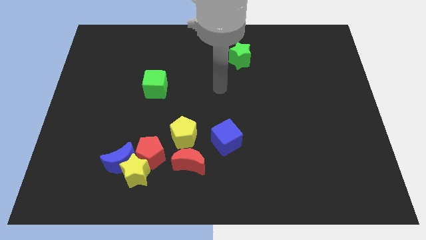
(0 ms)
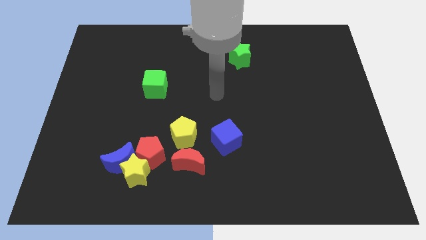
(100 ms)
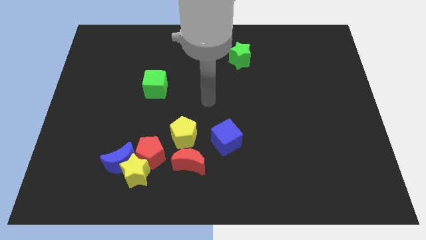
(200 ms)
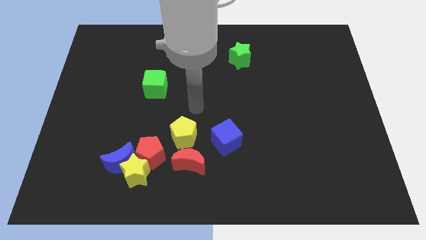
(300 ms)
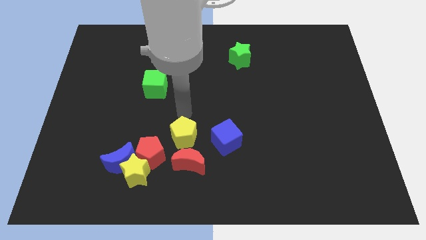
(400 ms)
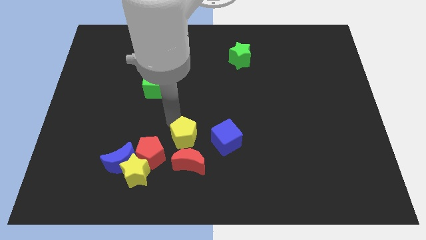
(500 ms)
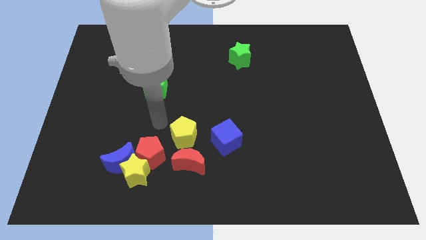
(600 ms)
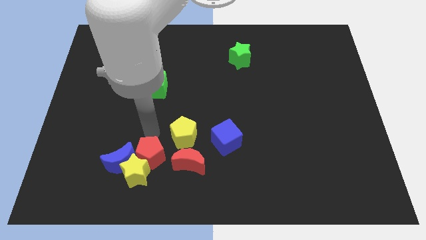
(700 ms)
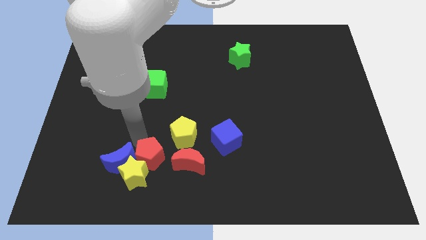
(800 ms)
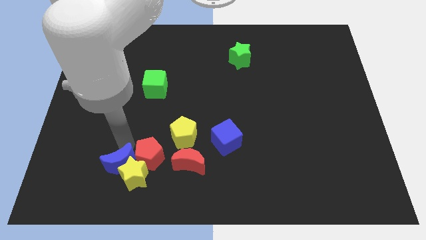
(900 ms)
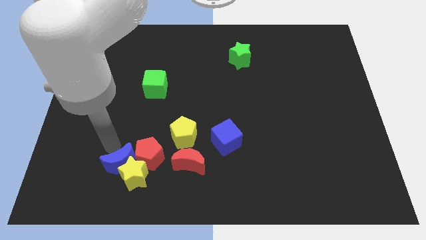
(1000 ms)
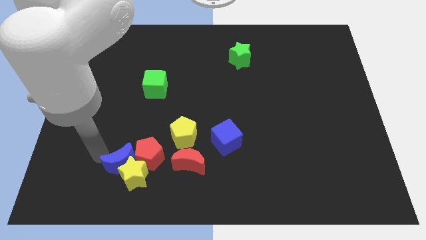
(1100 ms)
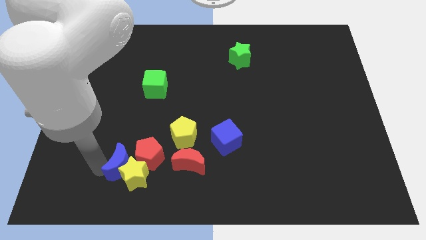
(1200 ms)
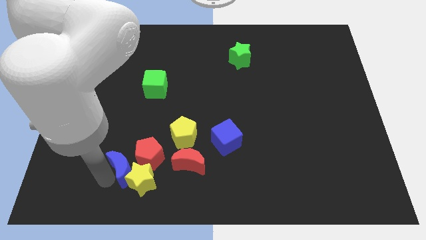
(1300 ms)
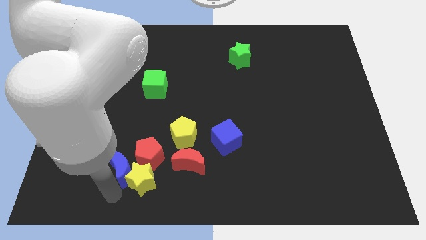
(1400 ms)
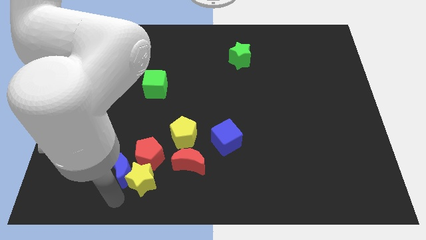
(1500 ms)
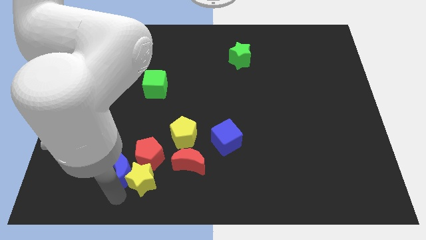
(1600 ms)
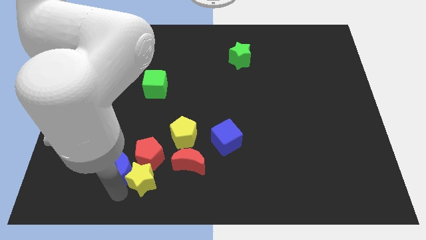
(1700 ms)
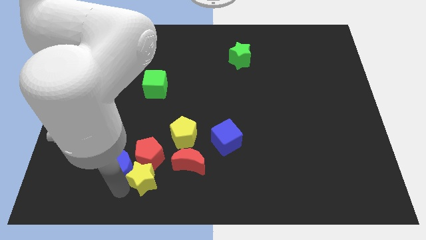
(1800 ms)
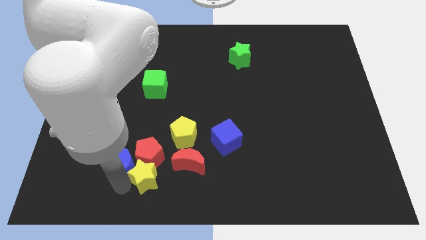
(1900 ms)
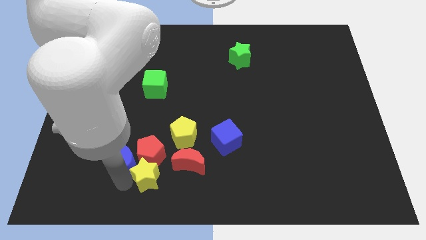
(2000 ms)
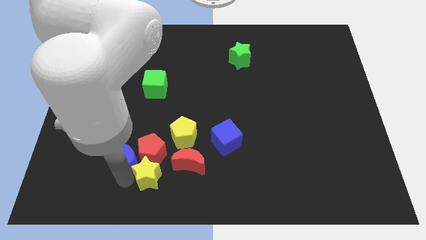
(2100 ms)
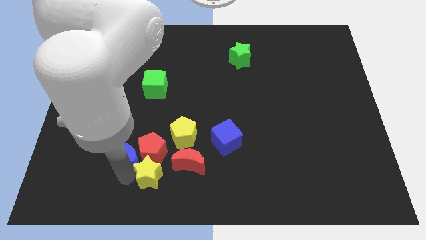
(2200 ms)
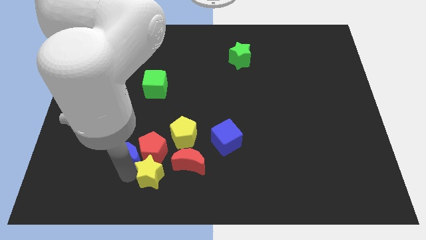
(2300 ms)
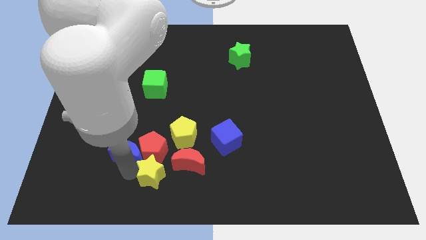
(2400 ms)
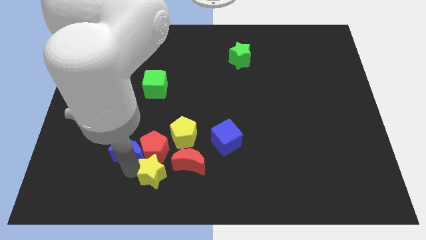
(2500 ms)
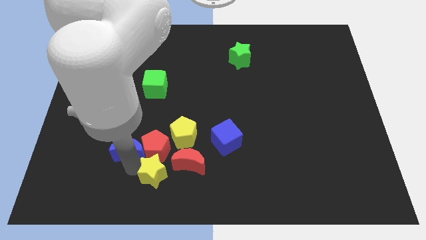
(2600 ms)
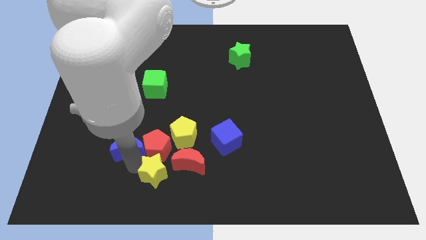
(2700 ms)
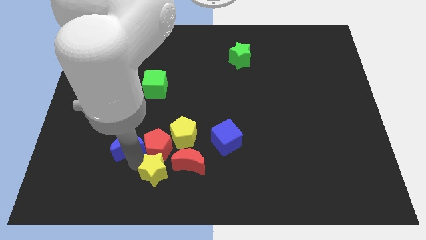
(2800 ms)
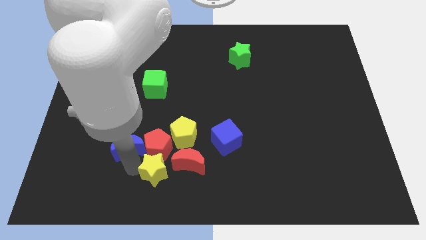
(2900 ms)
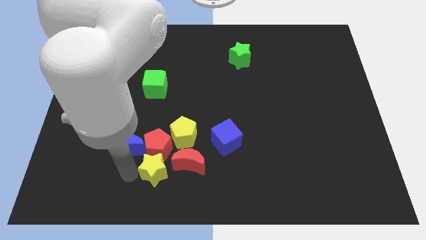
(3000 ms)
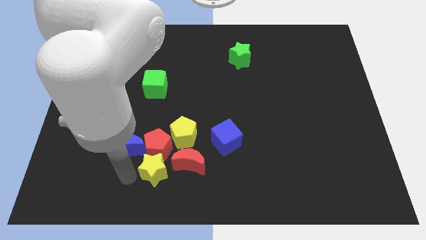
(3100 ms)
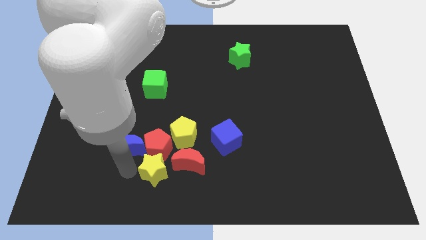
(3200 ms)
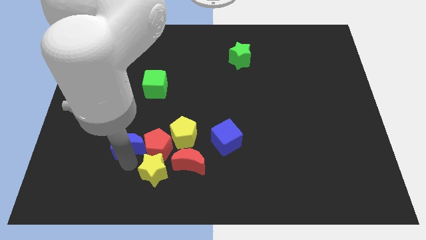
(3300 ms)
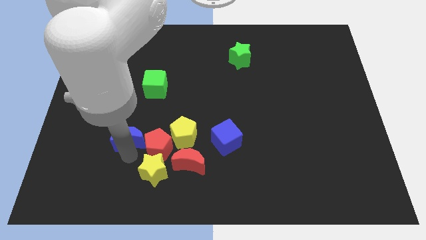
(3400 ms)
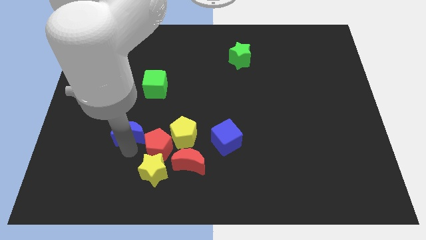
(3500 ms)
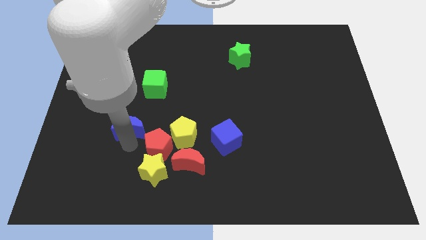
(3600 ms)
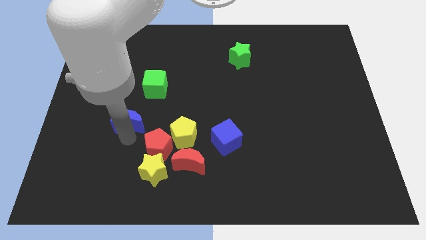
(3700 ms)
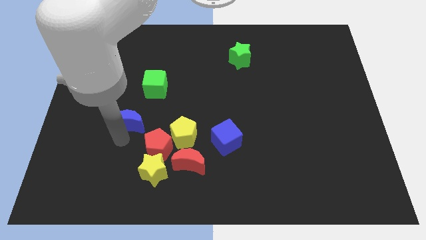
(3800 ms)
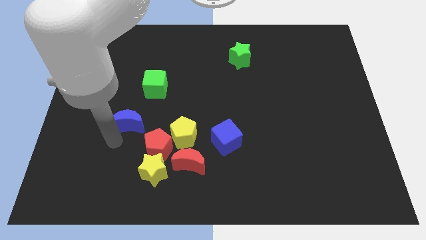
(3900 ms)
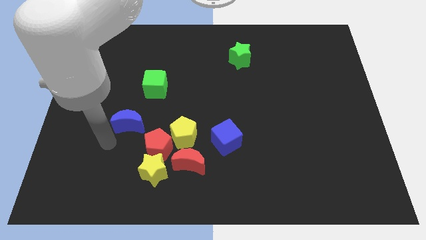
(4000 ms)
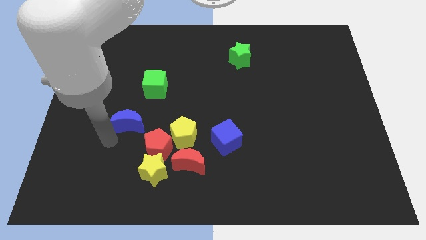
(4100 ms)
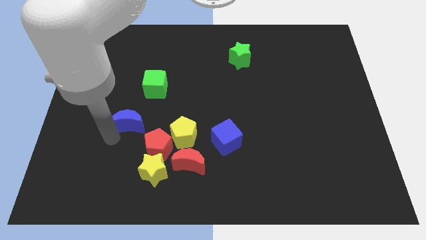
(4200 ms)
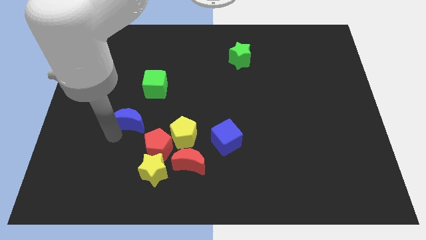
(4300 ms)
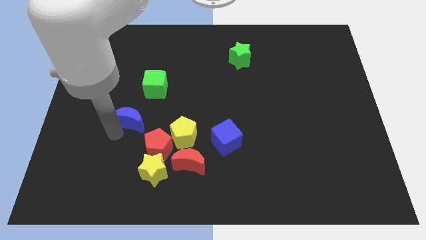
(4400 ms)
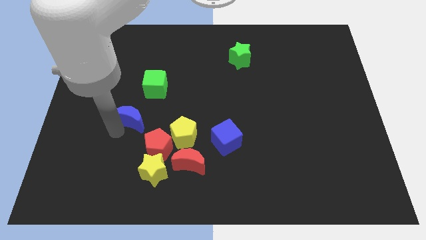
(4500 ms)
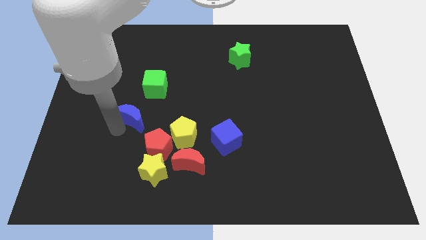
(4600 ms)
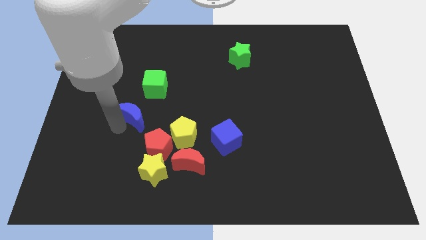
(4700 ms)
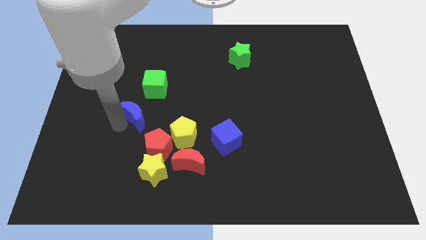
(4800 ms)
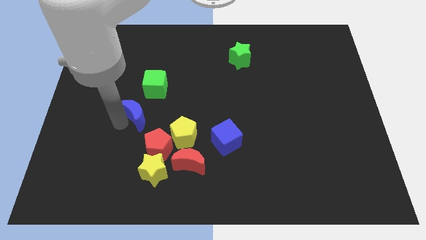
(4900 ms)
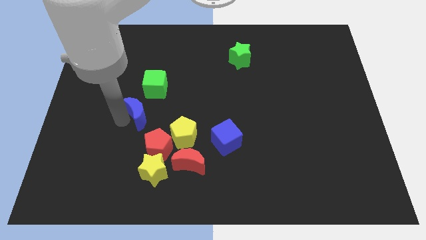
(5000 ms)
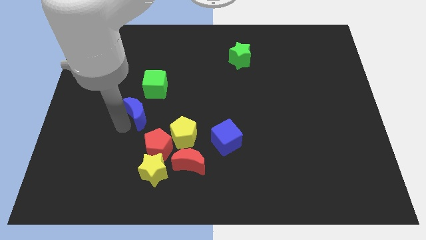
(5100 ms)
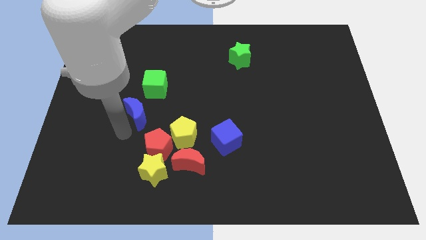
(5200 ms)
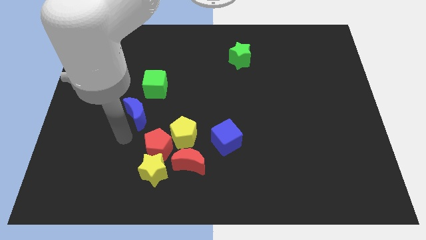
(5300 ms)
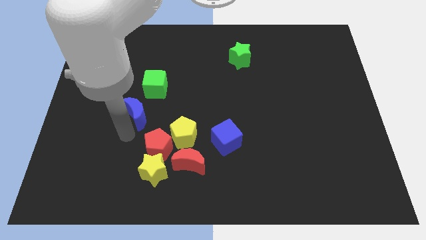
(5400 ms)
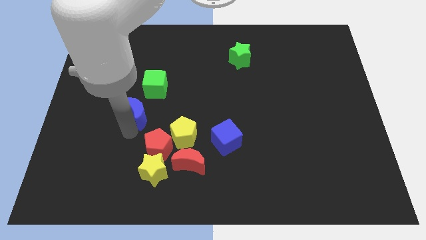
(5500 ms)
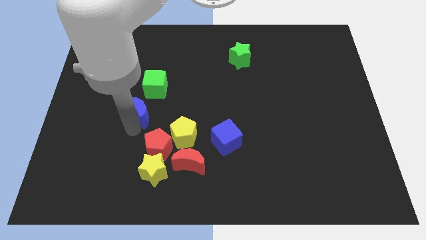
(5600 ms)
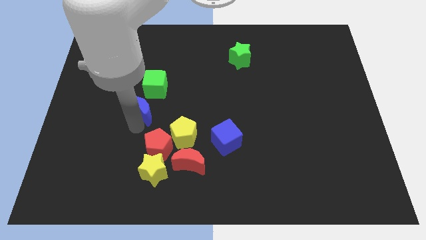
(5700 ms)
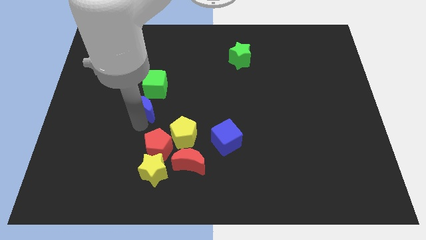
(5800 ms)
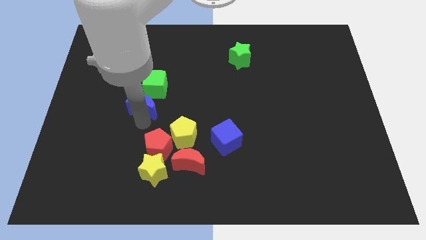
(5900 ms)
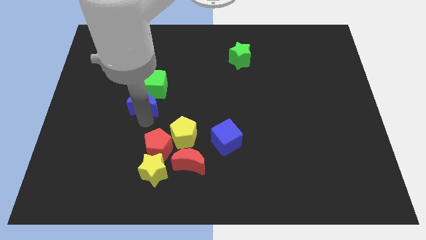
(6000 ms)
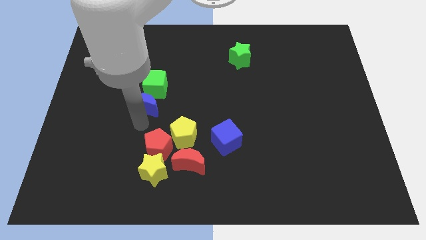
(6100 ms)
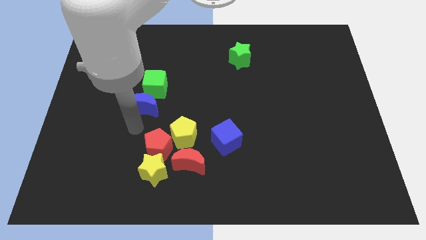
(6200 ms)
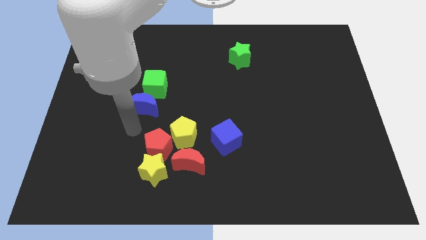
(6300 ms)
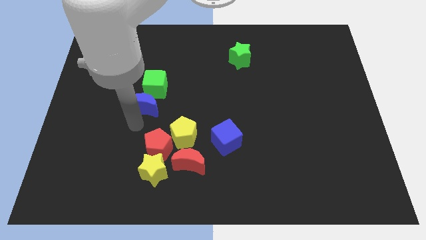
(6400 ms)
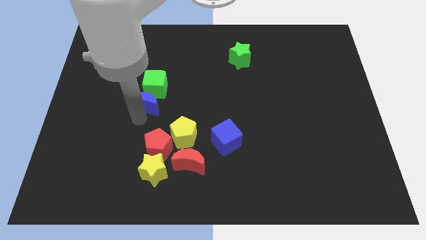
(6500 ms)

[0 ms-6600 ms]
slide the blue moon towards the green cube
